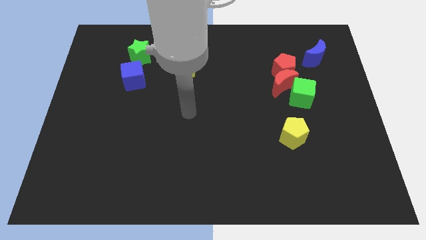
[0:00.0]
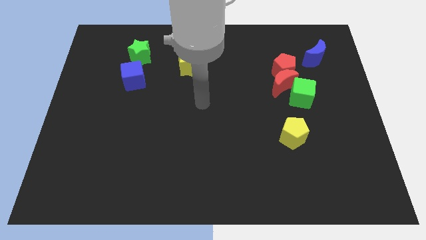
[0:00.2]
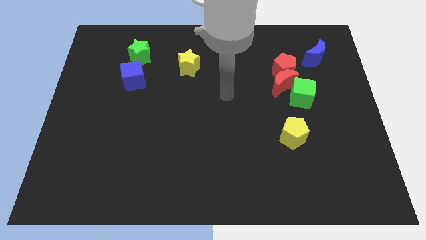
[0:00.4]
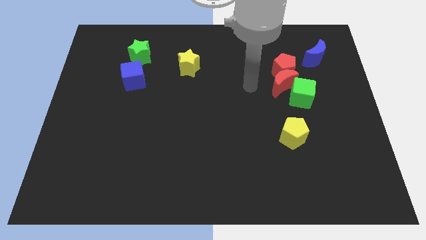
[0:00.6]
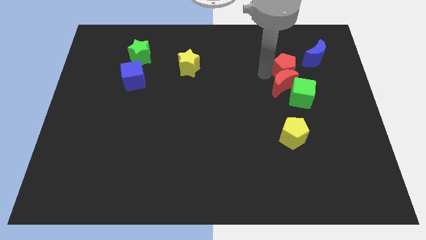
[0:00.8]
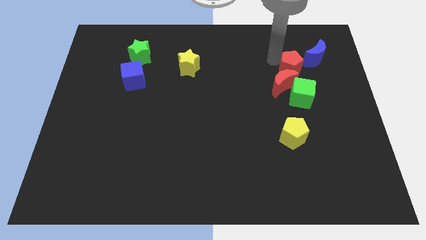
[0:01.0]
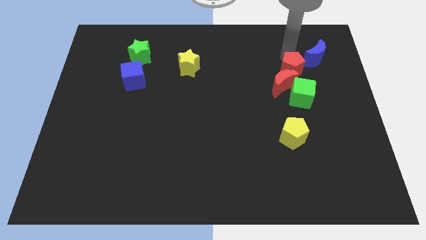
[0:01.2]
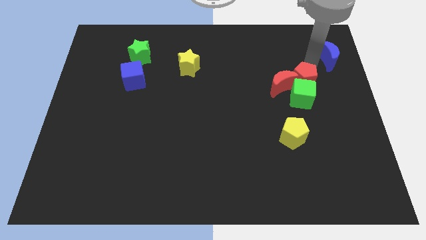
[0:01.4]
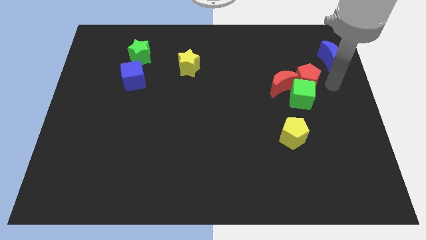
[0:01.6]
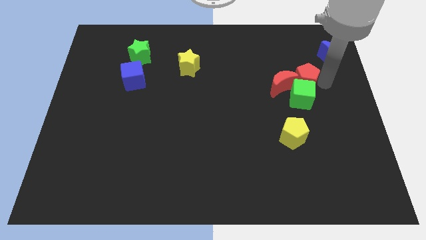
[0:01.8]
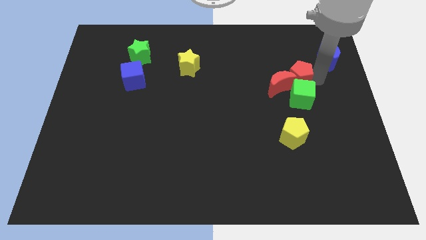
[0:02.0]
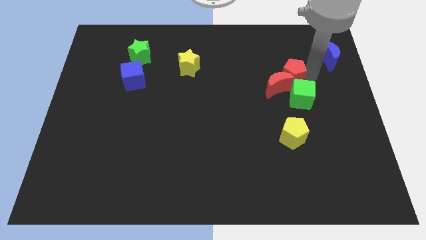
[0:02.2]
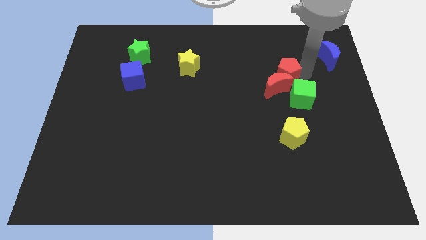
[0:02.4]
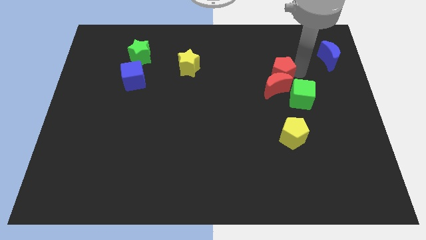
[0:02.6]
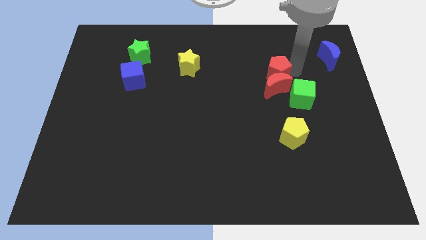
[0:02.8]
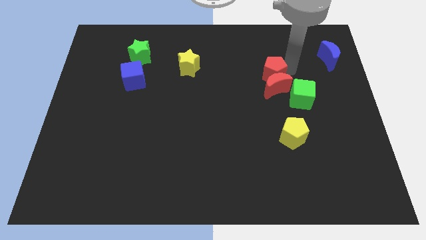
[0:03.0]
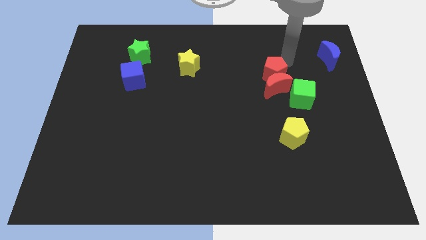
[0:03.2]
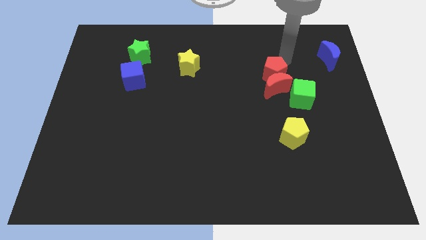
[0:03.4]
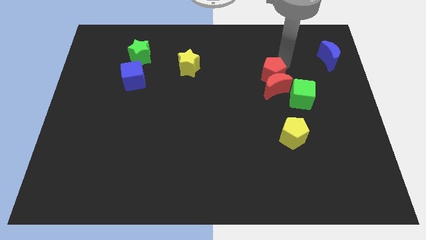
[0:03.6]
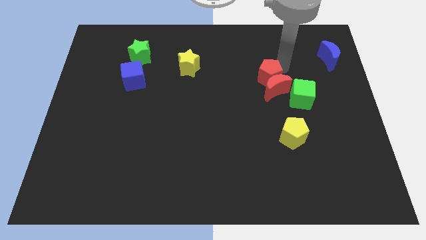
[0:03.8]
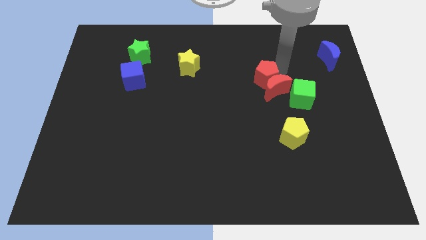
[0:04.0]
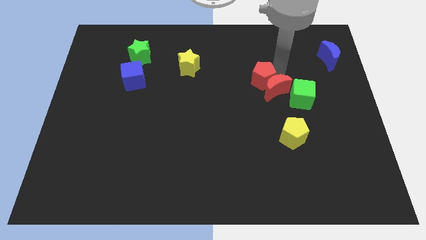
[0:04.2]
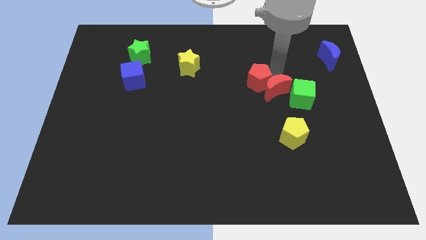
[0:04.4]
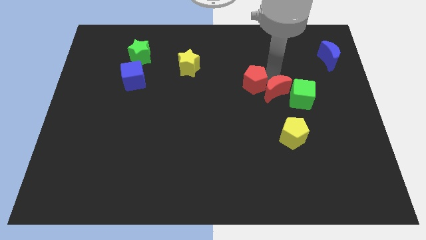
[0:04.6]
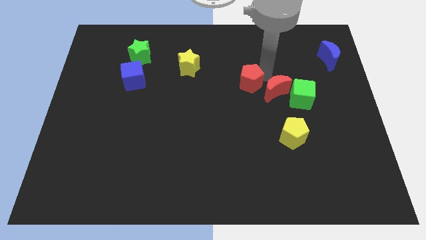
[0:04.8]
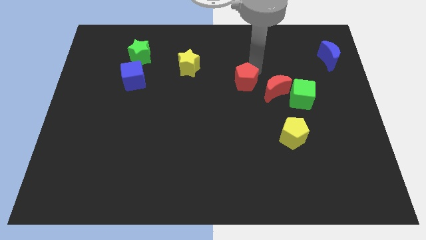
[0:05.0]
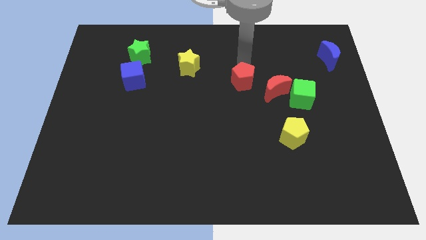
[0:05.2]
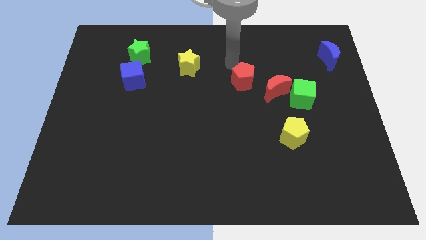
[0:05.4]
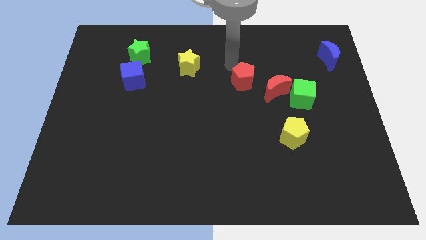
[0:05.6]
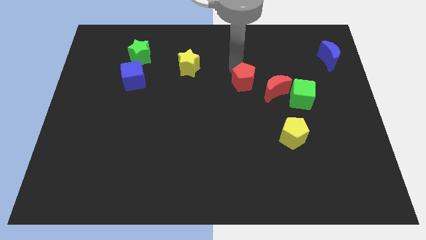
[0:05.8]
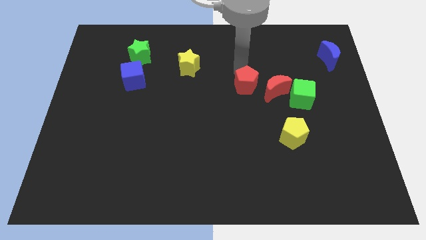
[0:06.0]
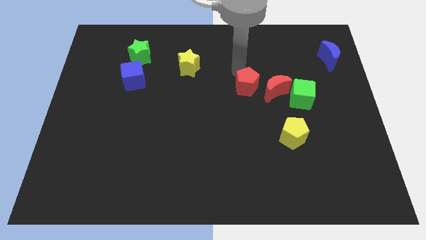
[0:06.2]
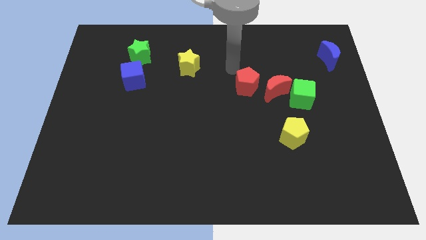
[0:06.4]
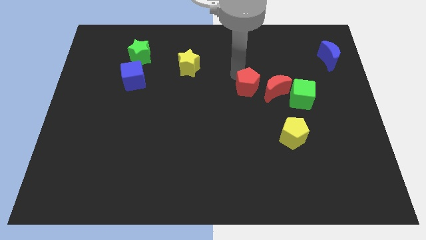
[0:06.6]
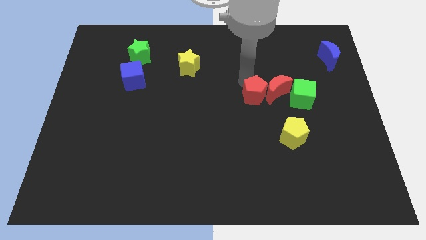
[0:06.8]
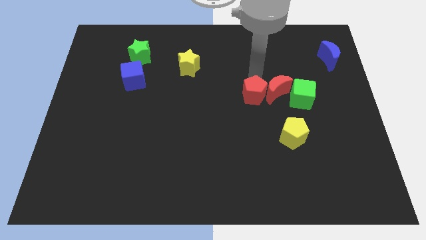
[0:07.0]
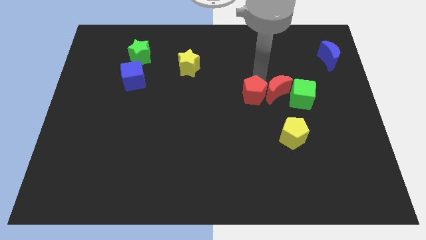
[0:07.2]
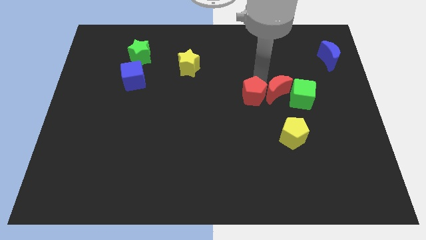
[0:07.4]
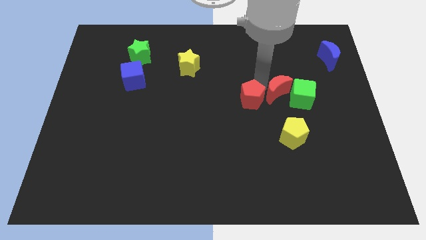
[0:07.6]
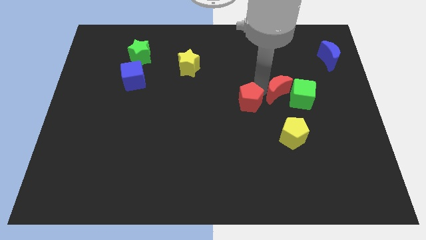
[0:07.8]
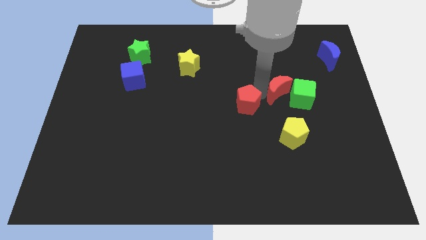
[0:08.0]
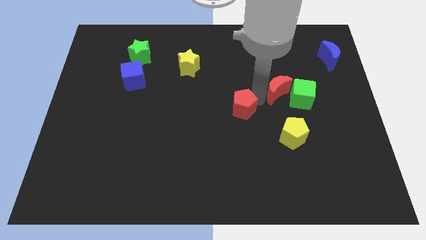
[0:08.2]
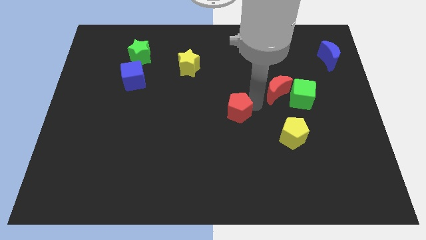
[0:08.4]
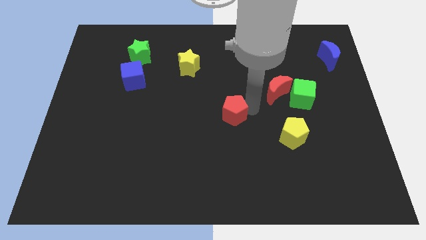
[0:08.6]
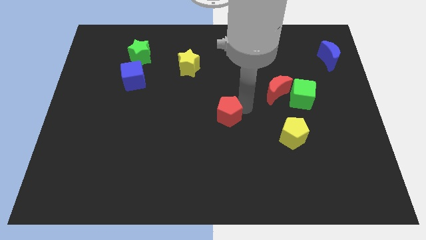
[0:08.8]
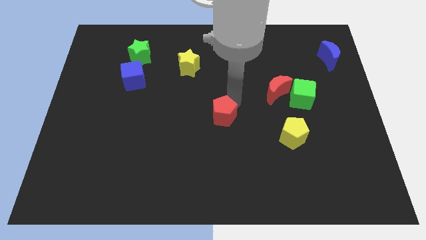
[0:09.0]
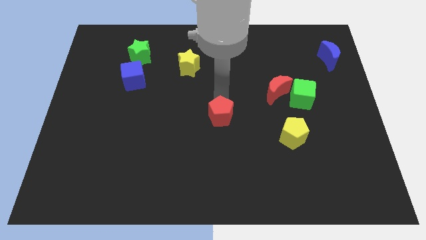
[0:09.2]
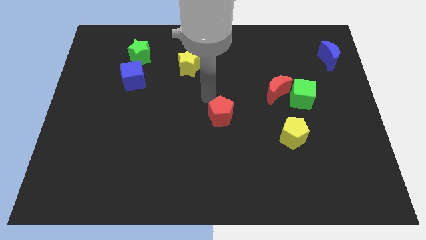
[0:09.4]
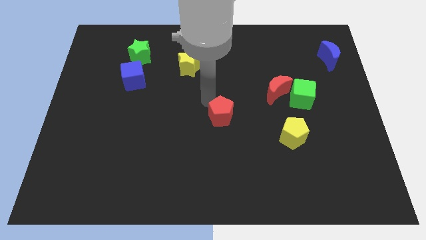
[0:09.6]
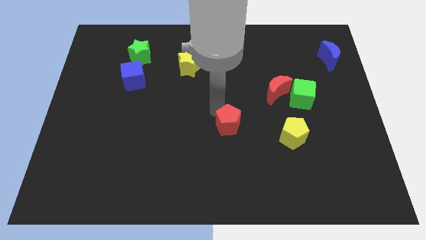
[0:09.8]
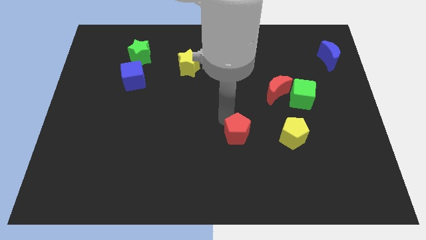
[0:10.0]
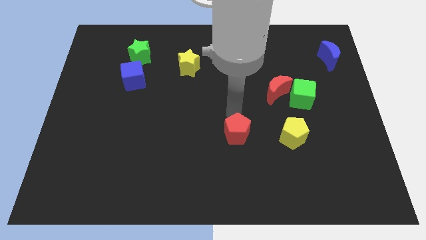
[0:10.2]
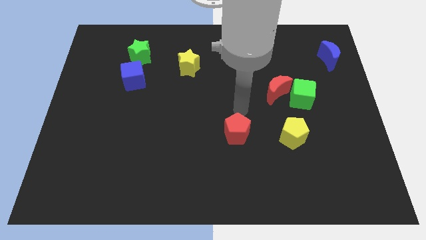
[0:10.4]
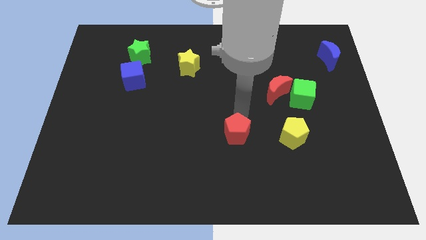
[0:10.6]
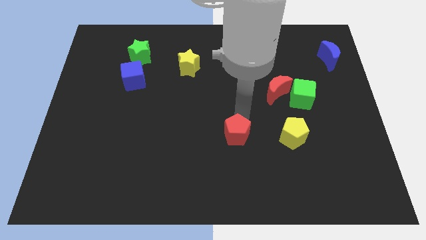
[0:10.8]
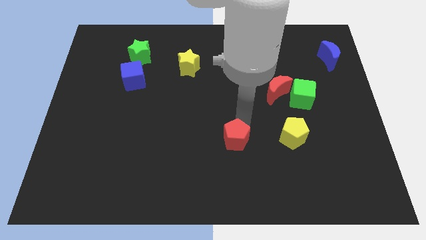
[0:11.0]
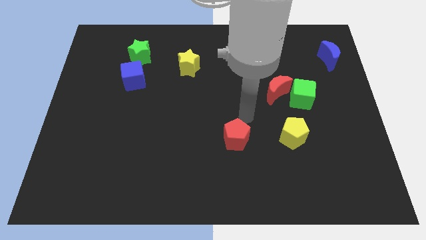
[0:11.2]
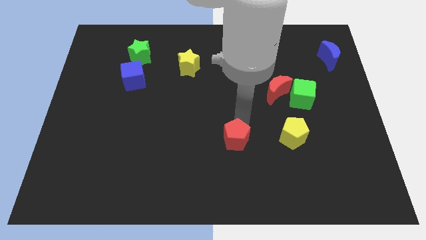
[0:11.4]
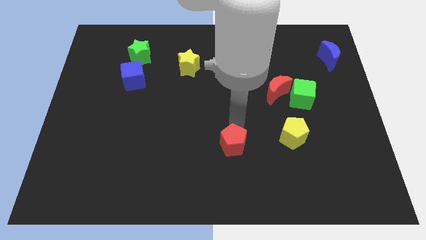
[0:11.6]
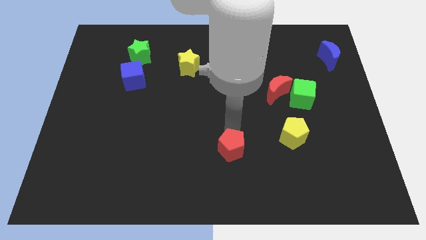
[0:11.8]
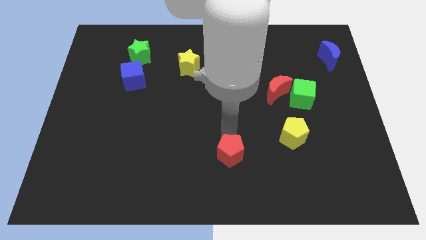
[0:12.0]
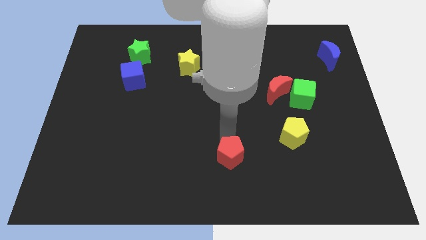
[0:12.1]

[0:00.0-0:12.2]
push the red pentagon to the bottom side

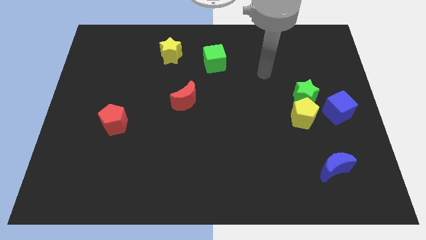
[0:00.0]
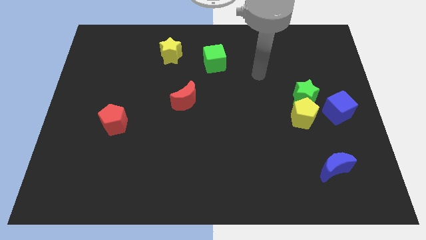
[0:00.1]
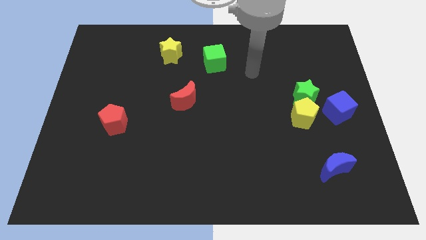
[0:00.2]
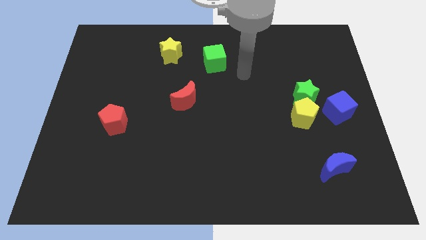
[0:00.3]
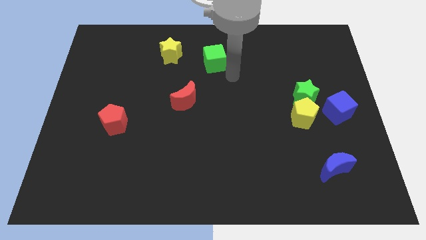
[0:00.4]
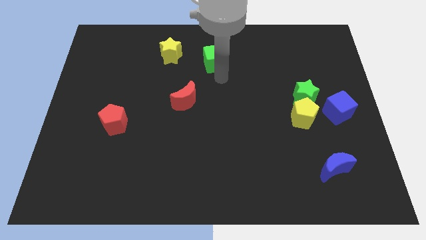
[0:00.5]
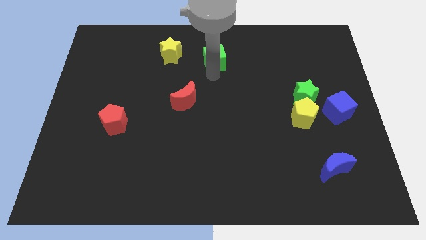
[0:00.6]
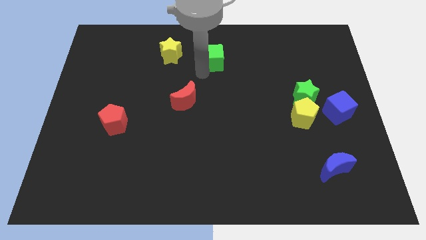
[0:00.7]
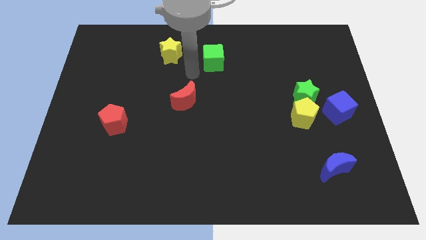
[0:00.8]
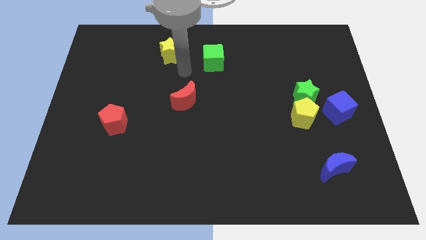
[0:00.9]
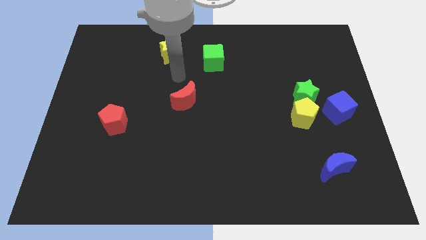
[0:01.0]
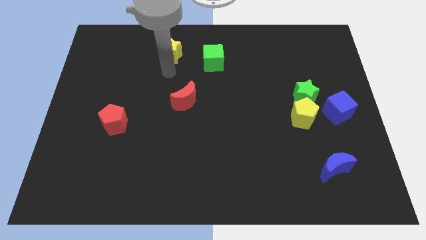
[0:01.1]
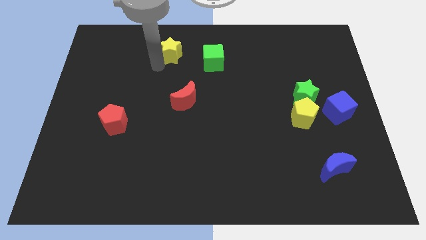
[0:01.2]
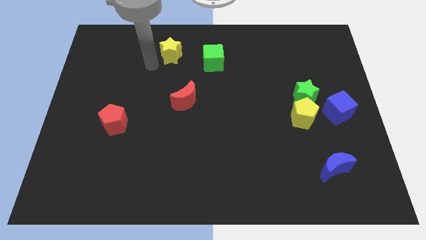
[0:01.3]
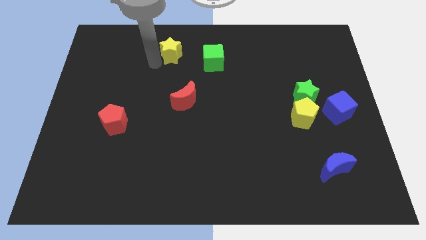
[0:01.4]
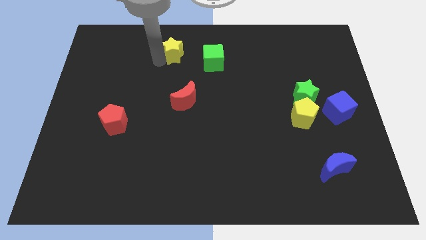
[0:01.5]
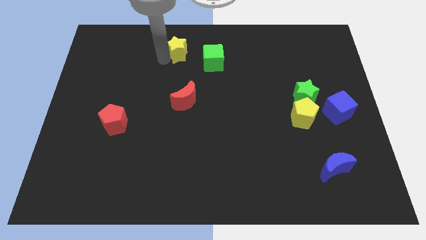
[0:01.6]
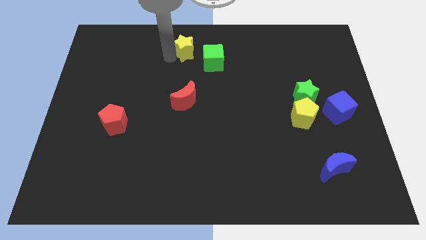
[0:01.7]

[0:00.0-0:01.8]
move the yellow star to the top side
